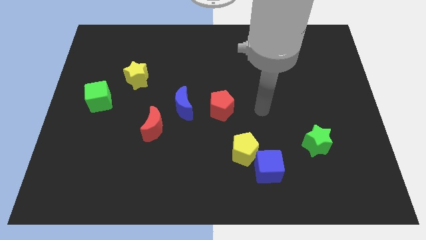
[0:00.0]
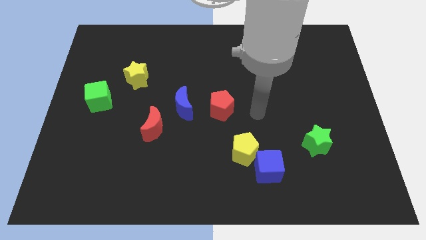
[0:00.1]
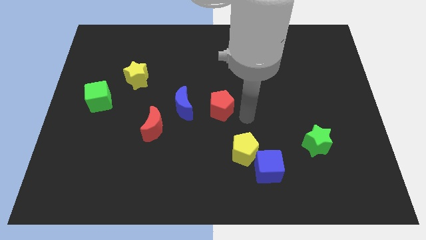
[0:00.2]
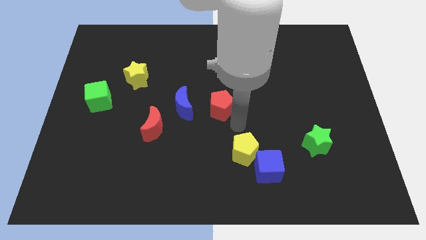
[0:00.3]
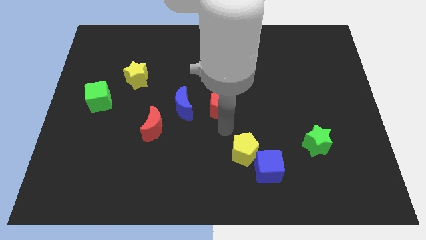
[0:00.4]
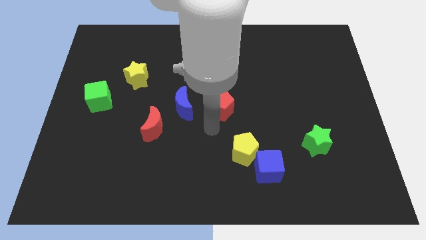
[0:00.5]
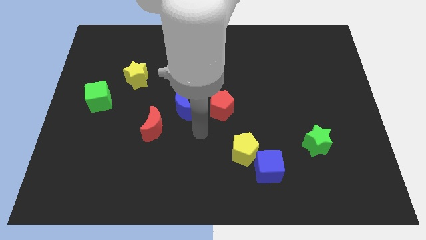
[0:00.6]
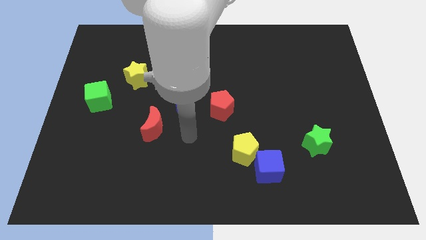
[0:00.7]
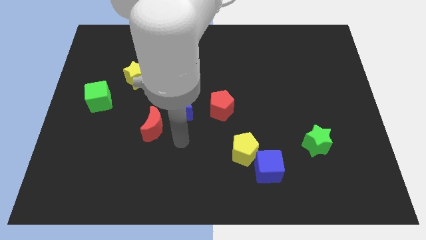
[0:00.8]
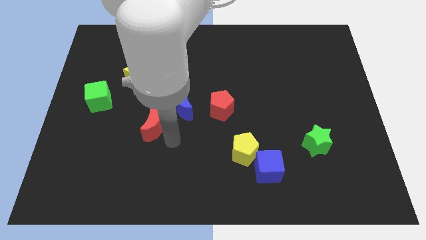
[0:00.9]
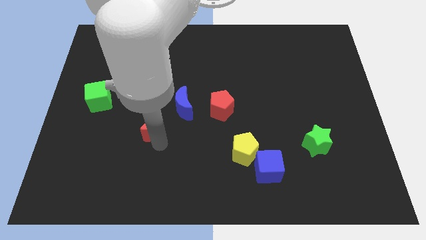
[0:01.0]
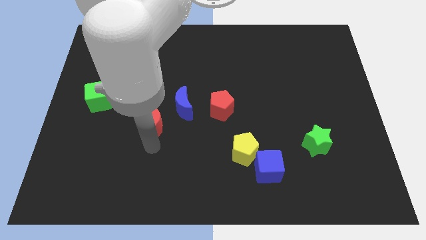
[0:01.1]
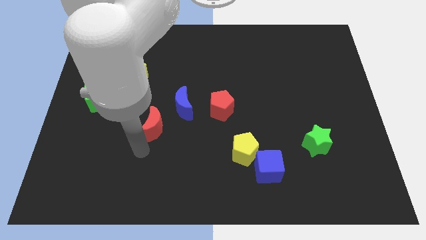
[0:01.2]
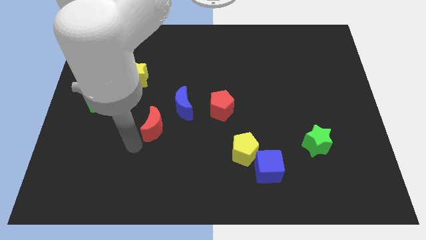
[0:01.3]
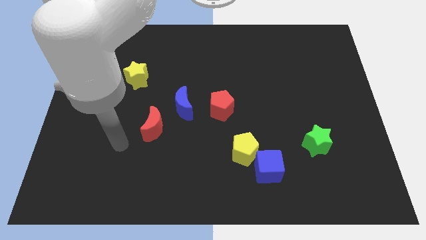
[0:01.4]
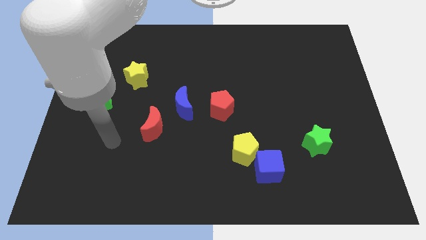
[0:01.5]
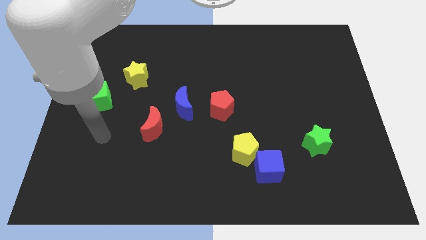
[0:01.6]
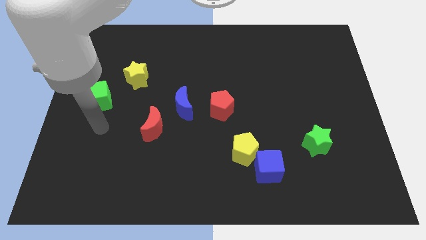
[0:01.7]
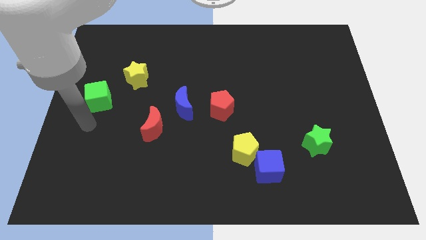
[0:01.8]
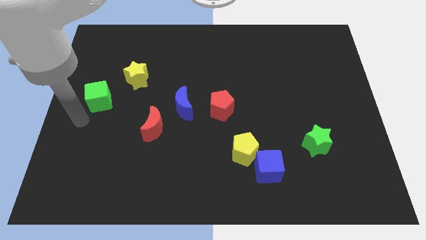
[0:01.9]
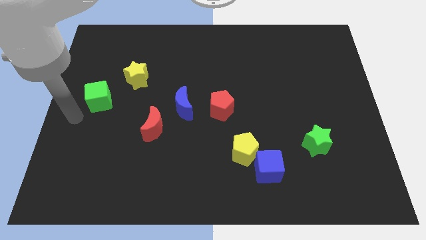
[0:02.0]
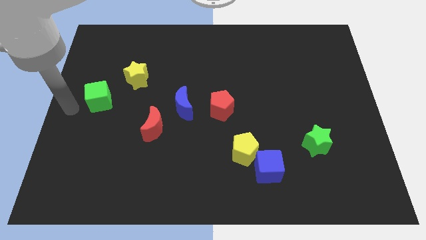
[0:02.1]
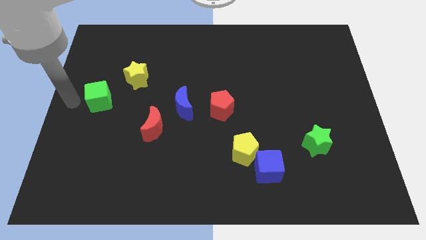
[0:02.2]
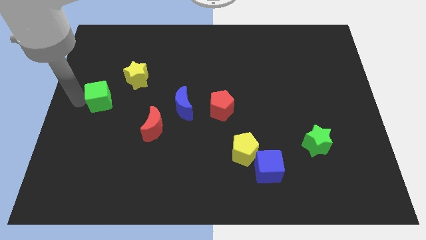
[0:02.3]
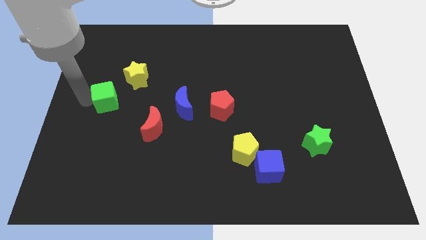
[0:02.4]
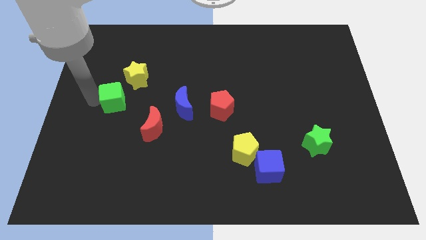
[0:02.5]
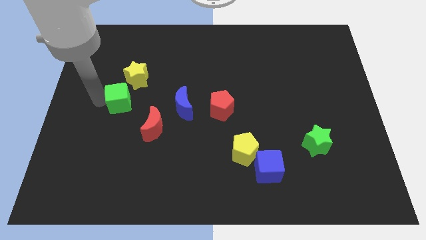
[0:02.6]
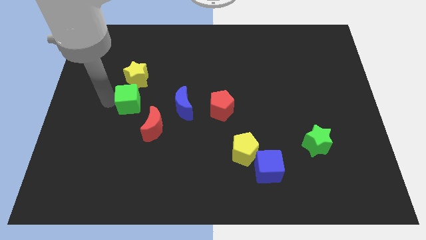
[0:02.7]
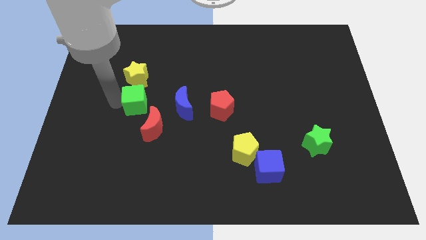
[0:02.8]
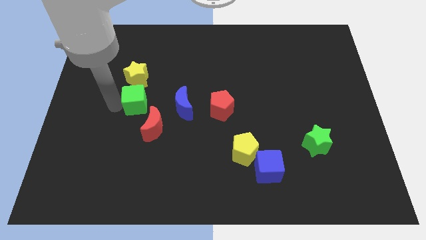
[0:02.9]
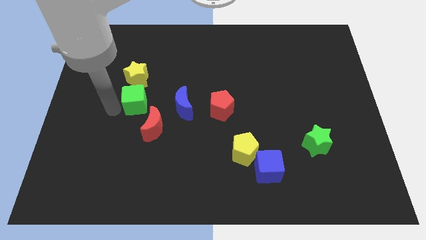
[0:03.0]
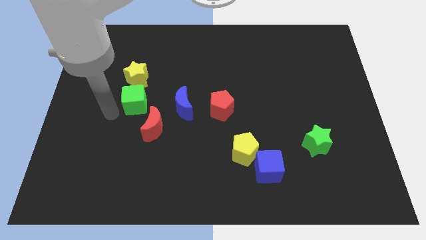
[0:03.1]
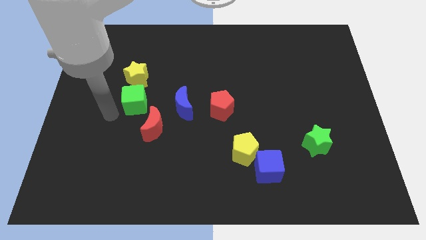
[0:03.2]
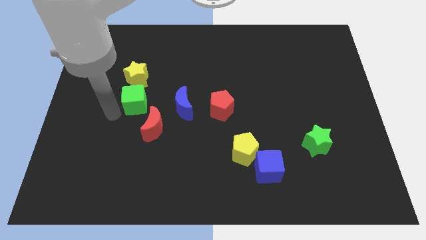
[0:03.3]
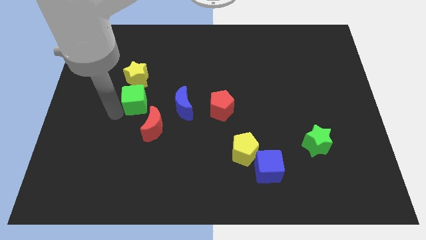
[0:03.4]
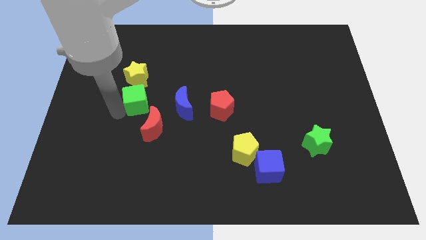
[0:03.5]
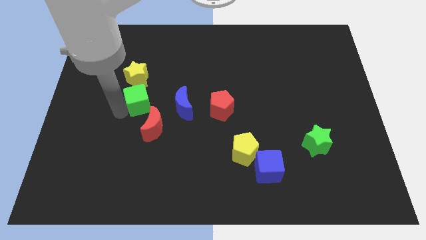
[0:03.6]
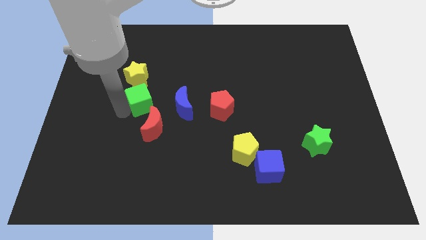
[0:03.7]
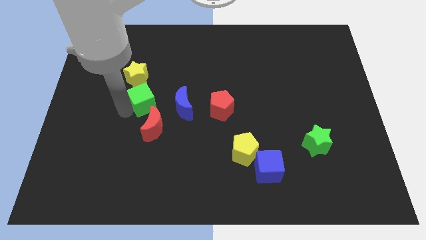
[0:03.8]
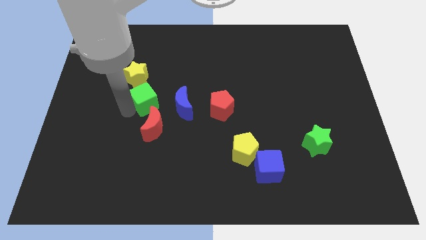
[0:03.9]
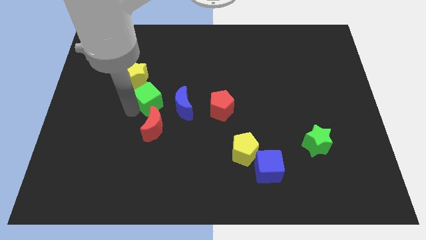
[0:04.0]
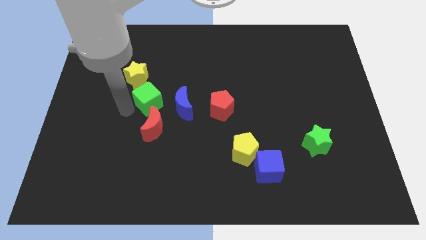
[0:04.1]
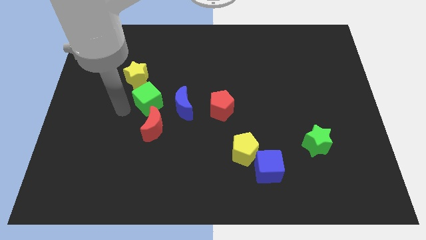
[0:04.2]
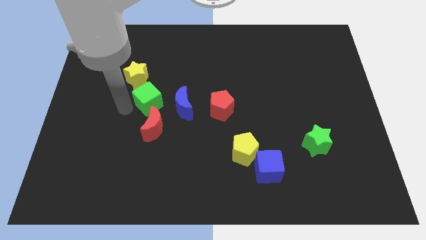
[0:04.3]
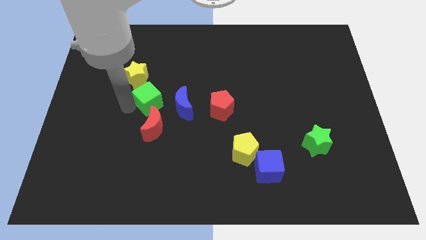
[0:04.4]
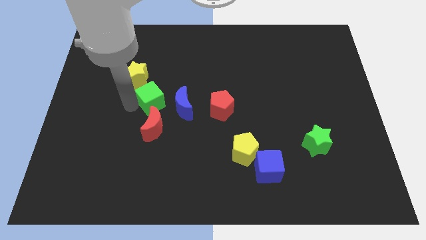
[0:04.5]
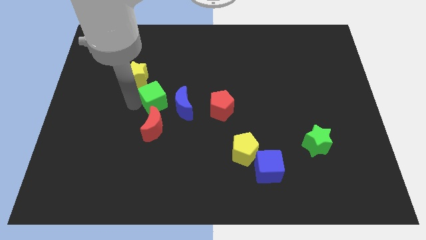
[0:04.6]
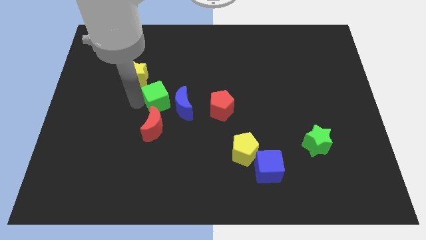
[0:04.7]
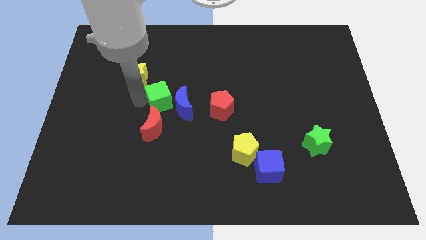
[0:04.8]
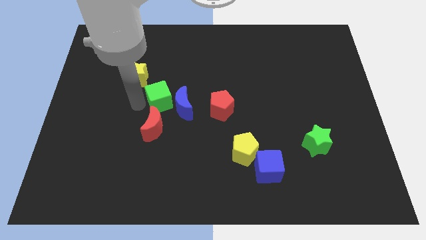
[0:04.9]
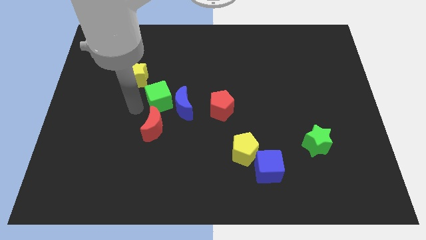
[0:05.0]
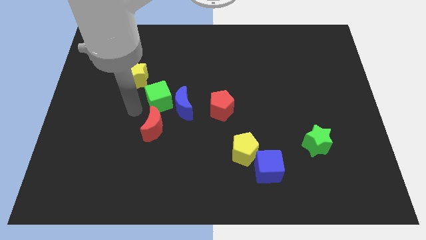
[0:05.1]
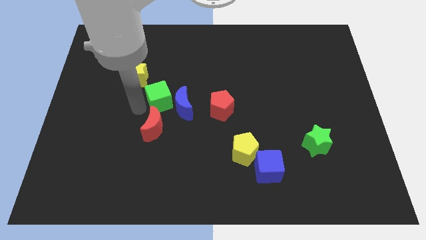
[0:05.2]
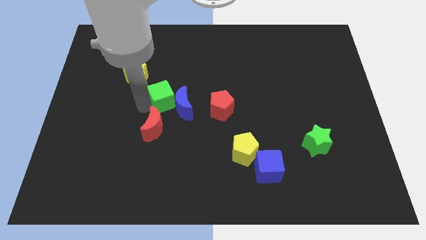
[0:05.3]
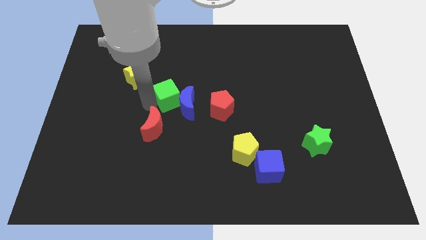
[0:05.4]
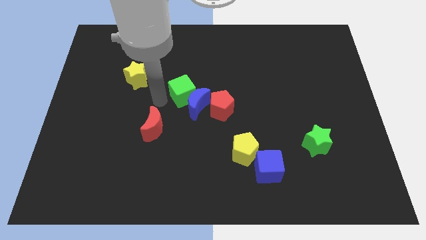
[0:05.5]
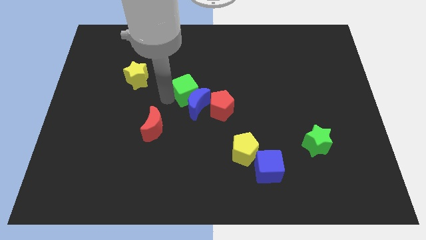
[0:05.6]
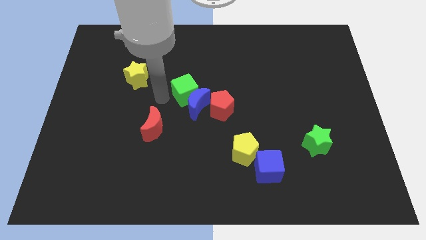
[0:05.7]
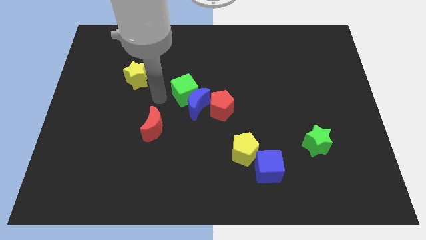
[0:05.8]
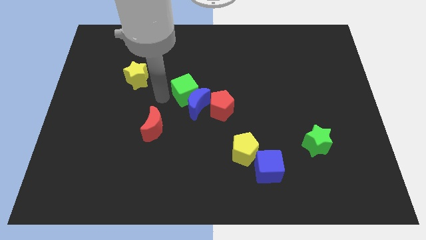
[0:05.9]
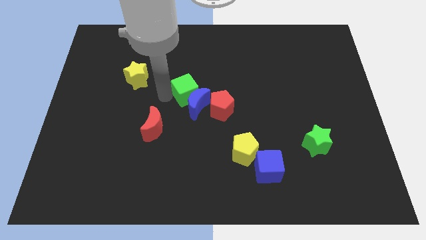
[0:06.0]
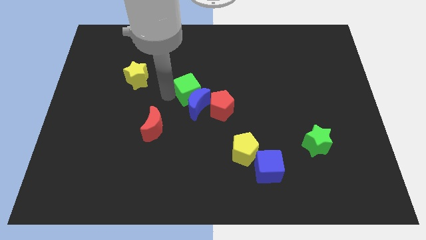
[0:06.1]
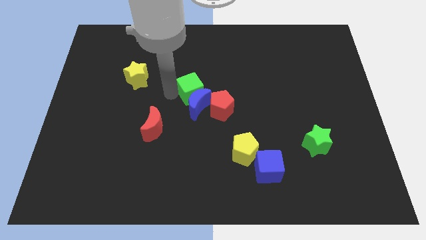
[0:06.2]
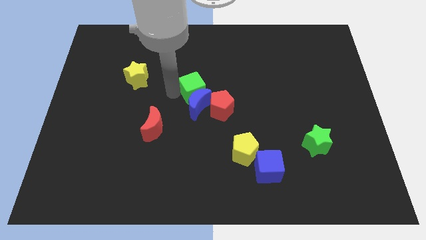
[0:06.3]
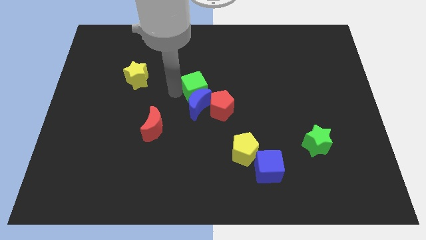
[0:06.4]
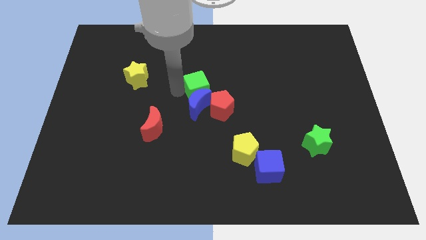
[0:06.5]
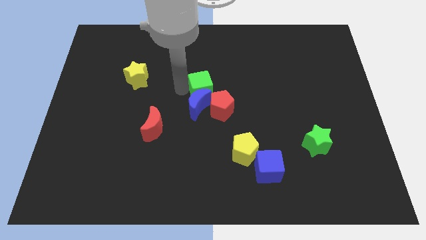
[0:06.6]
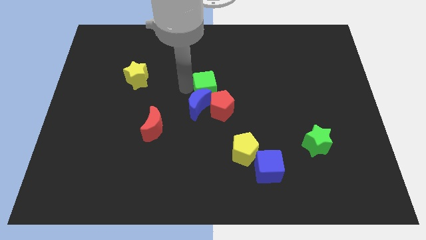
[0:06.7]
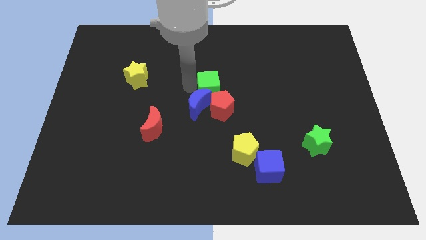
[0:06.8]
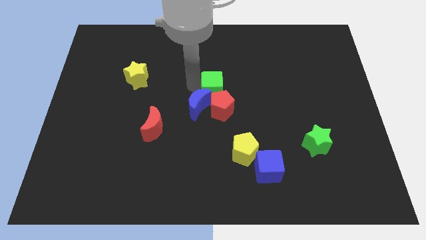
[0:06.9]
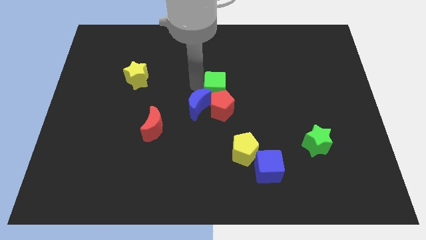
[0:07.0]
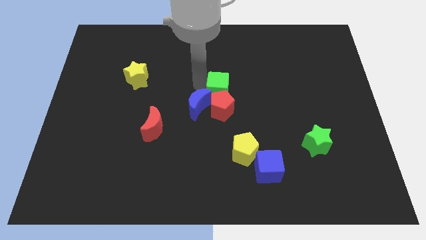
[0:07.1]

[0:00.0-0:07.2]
move the green cube to the top right of the red pentagon

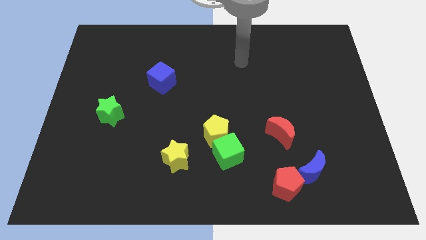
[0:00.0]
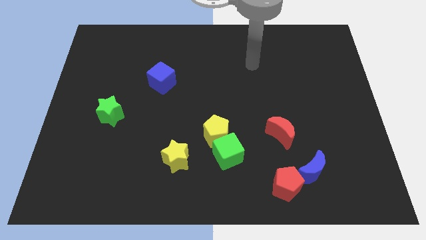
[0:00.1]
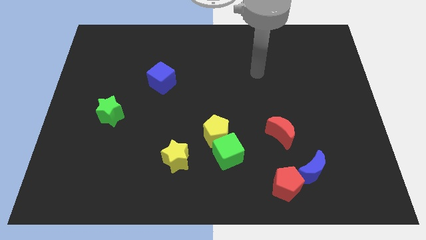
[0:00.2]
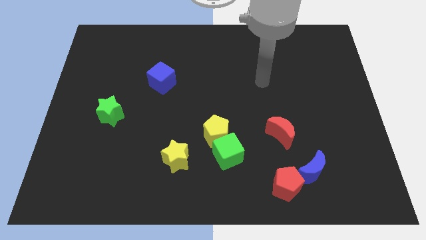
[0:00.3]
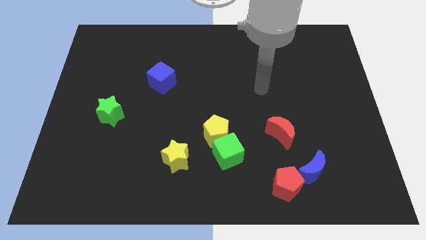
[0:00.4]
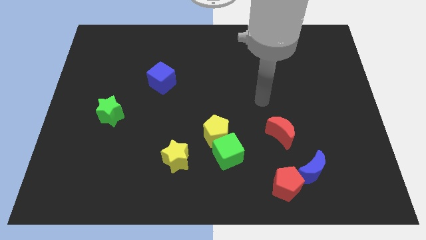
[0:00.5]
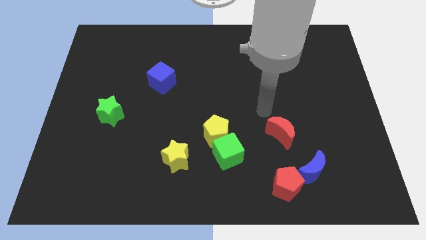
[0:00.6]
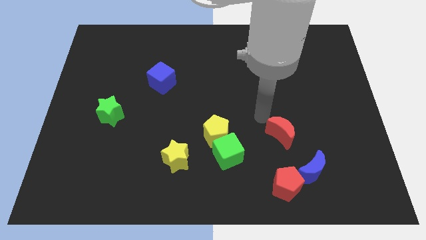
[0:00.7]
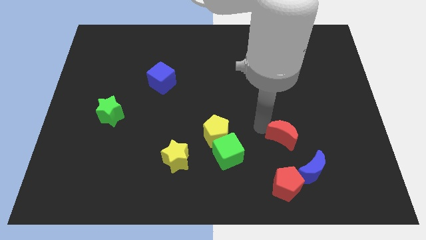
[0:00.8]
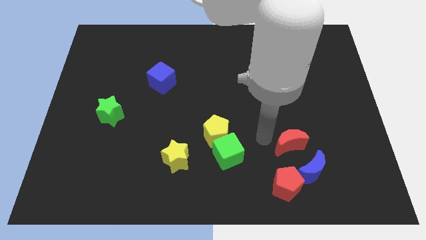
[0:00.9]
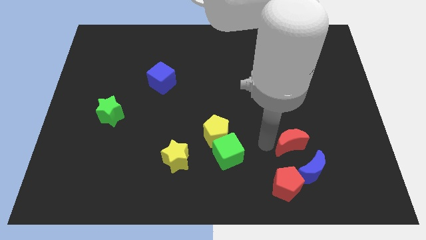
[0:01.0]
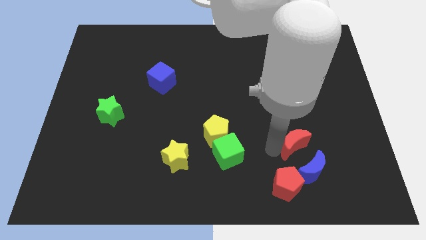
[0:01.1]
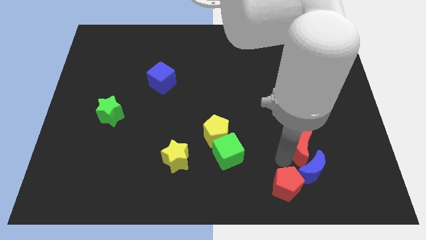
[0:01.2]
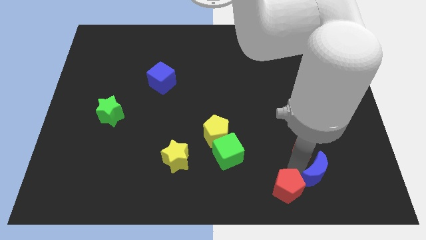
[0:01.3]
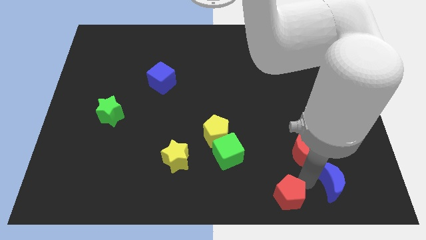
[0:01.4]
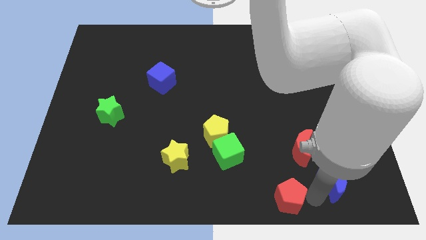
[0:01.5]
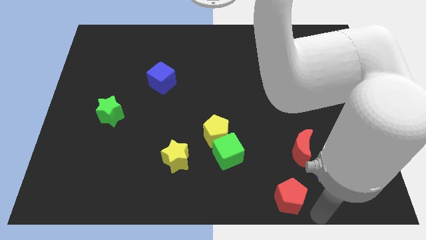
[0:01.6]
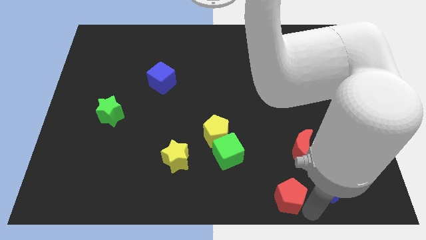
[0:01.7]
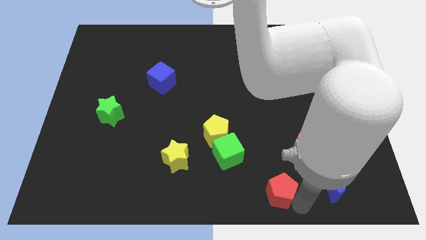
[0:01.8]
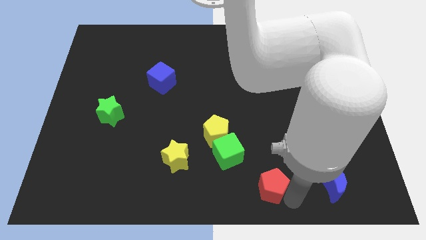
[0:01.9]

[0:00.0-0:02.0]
push the red pentagon to the bottom right side of the green cube
